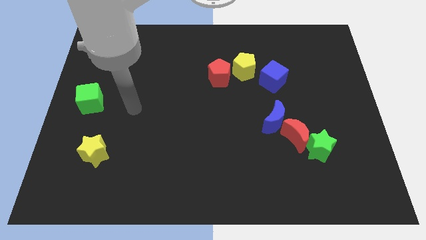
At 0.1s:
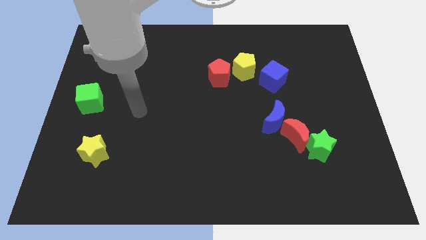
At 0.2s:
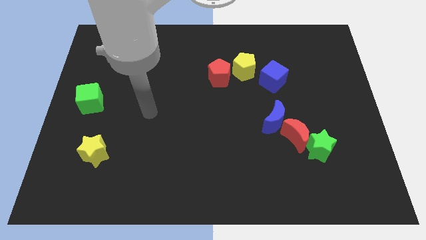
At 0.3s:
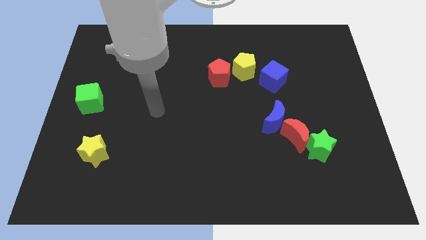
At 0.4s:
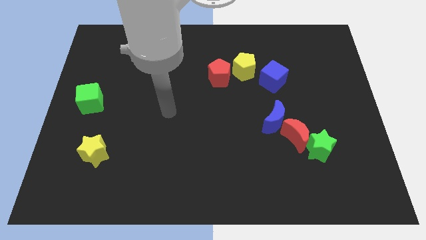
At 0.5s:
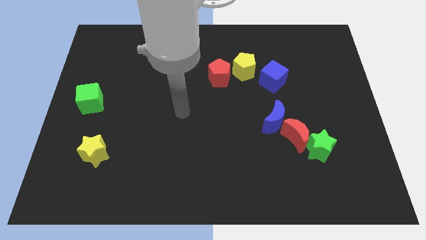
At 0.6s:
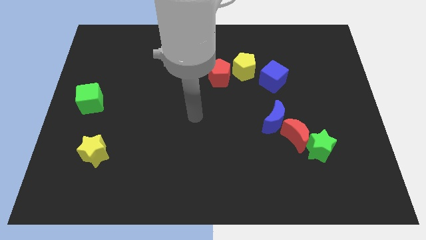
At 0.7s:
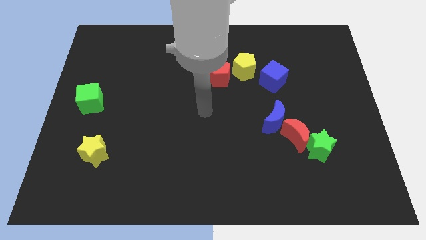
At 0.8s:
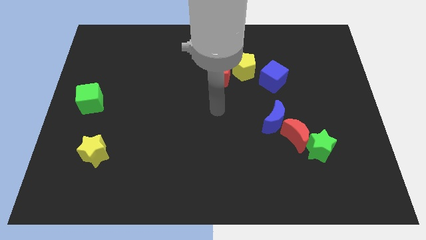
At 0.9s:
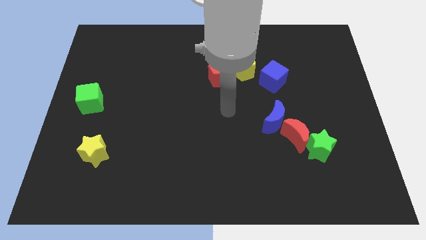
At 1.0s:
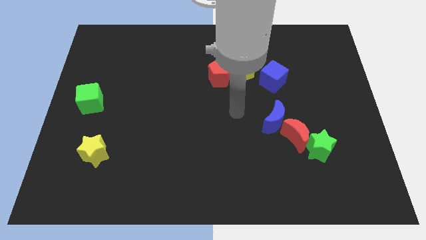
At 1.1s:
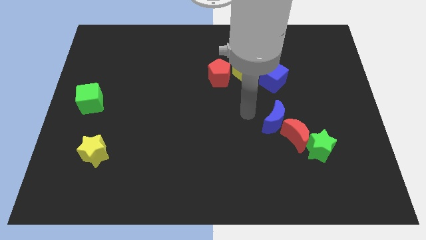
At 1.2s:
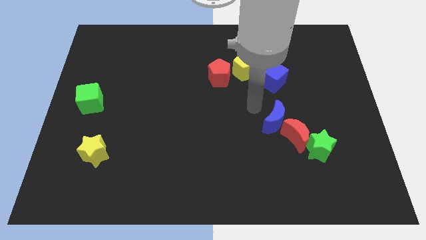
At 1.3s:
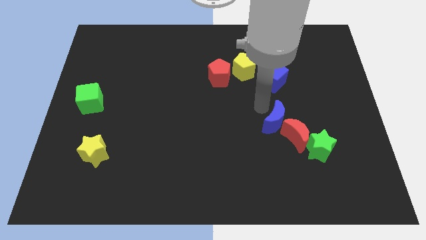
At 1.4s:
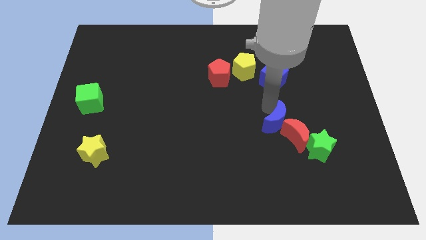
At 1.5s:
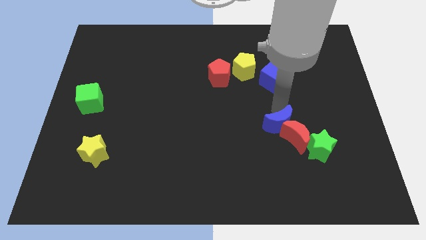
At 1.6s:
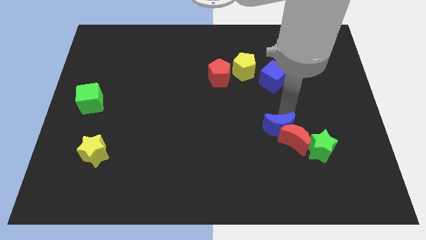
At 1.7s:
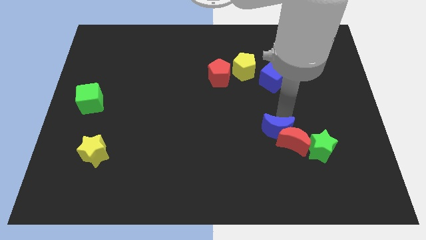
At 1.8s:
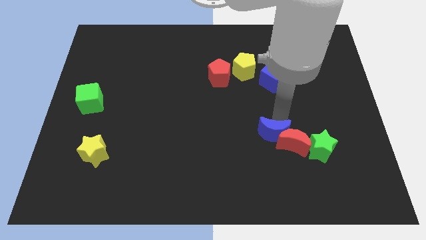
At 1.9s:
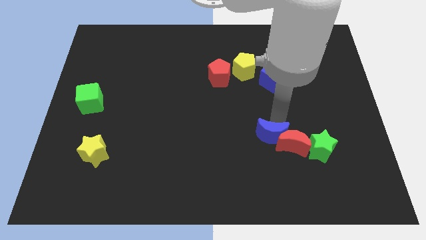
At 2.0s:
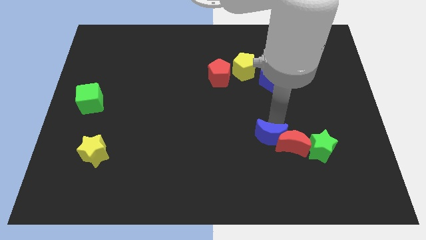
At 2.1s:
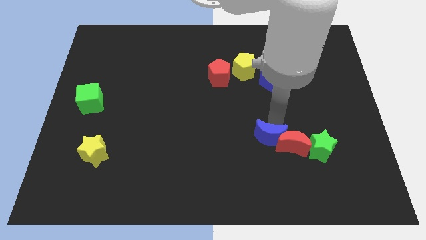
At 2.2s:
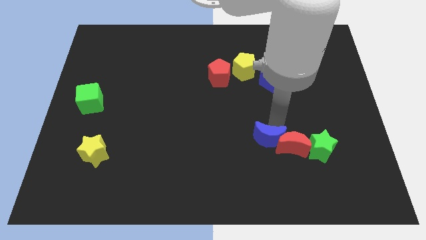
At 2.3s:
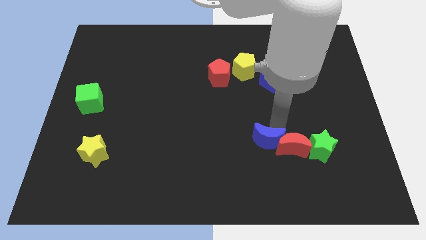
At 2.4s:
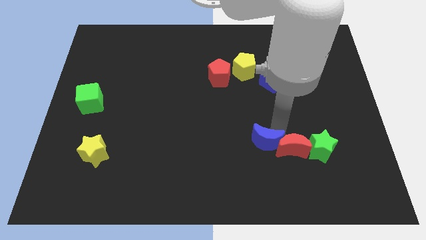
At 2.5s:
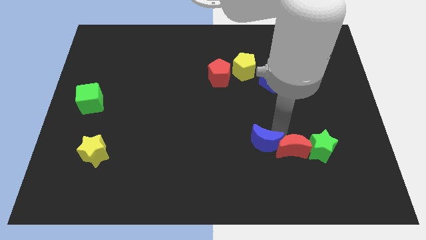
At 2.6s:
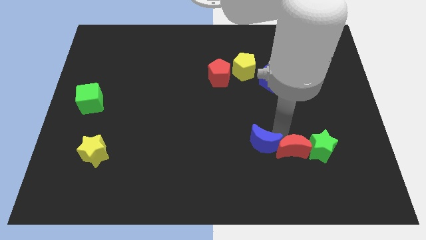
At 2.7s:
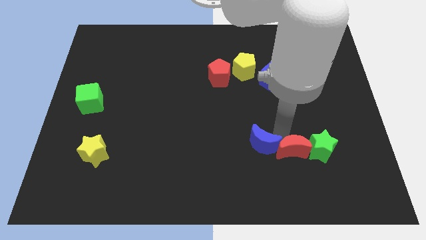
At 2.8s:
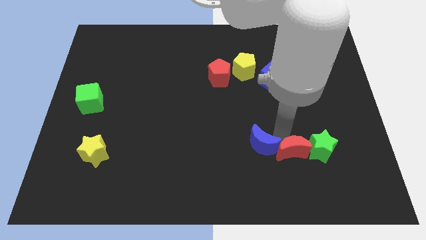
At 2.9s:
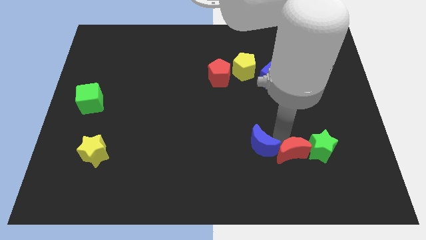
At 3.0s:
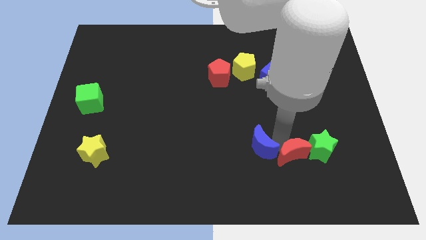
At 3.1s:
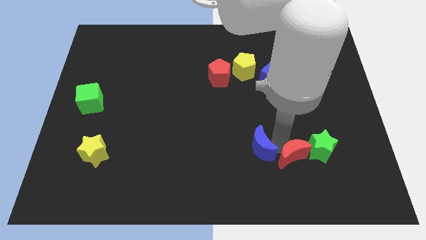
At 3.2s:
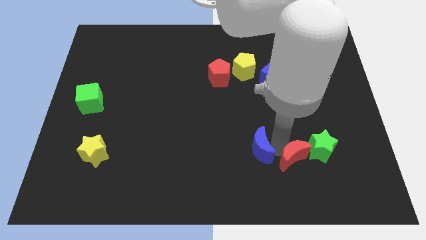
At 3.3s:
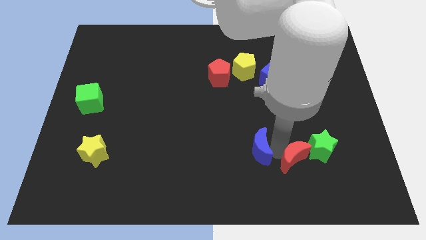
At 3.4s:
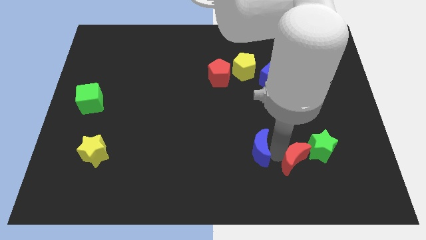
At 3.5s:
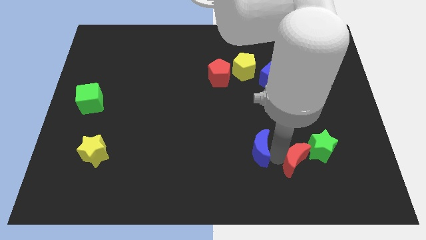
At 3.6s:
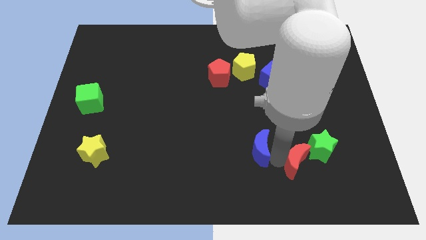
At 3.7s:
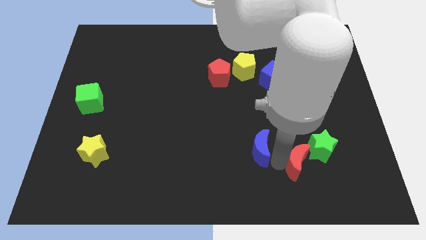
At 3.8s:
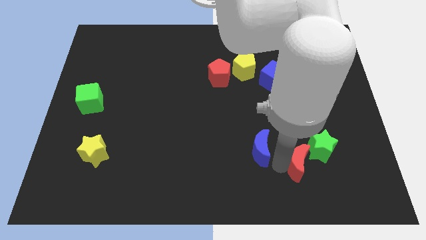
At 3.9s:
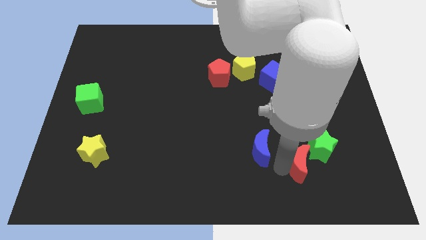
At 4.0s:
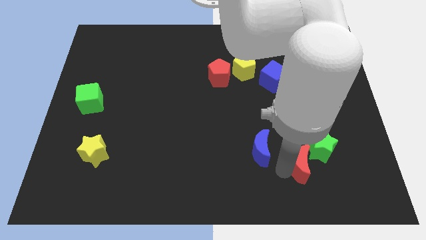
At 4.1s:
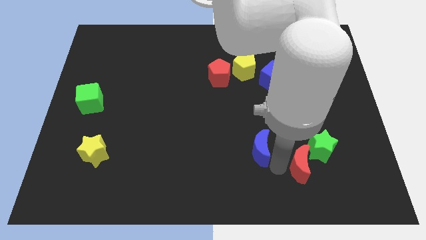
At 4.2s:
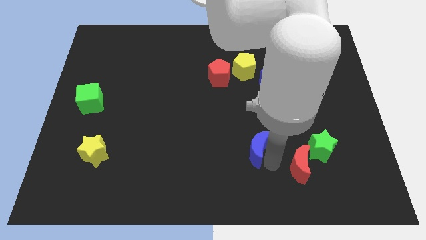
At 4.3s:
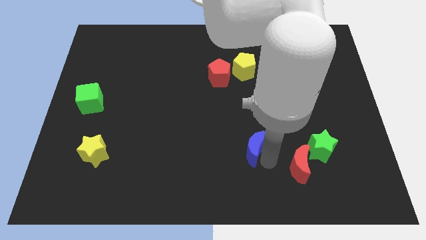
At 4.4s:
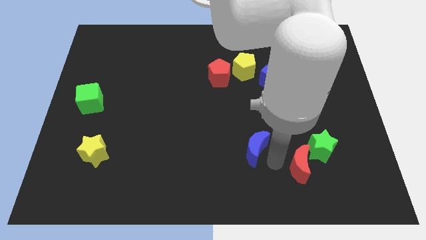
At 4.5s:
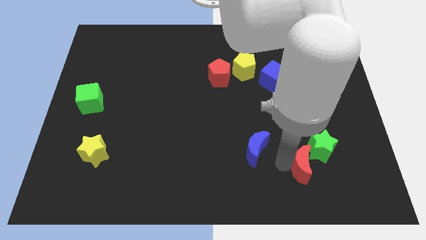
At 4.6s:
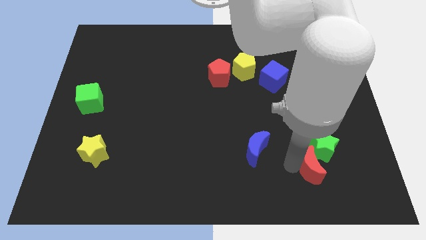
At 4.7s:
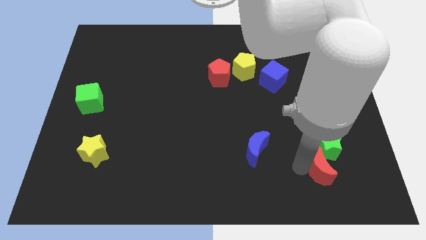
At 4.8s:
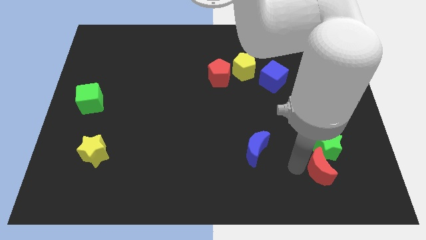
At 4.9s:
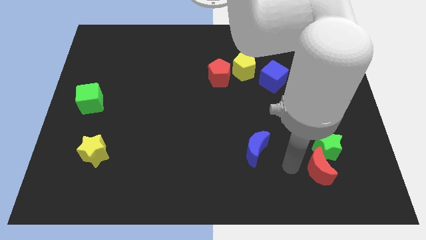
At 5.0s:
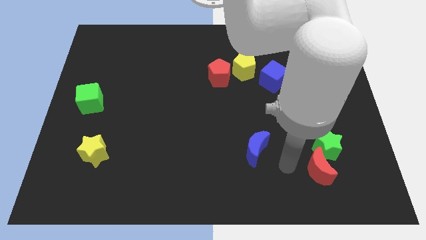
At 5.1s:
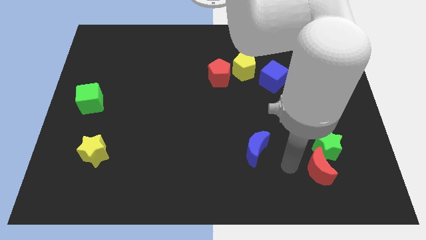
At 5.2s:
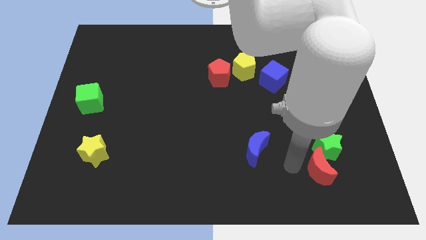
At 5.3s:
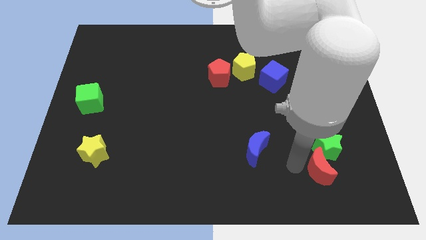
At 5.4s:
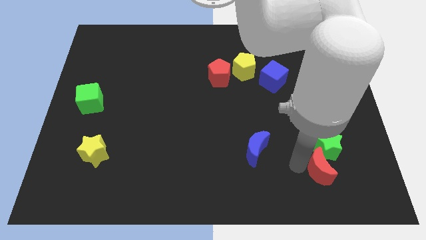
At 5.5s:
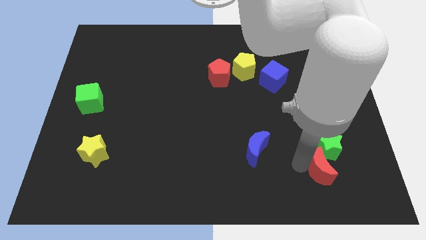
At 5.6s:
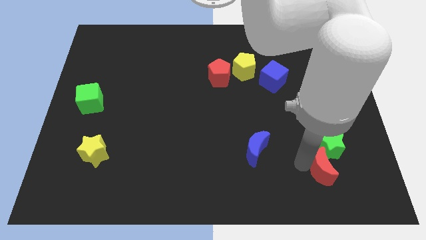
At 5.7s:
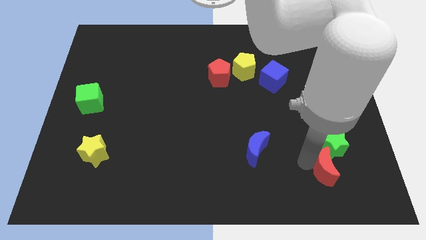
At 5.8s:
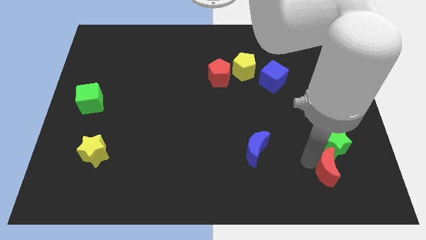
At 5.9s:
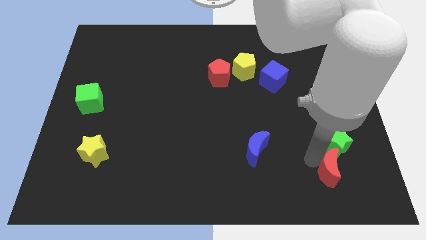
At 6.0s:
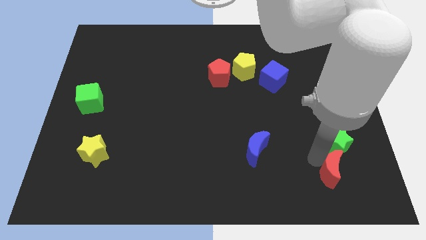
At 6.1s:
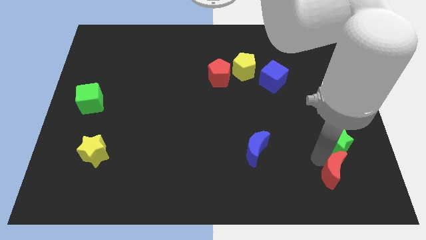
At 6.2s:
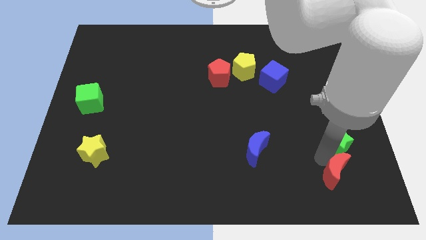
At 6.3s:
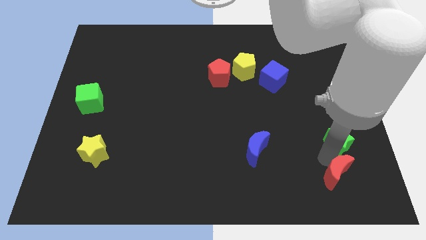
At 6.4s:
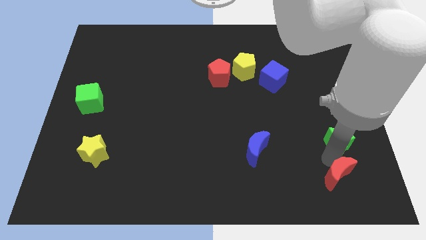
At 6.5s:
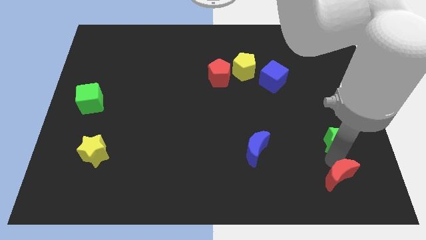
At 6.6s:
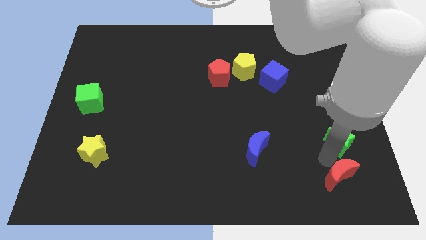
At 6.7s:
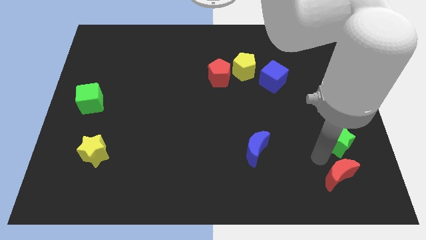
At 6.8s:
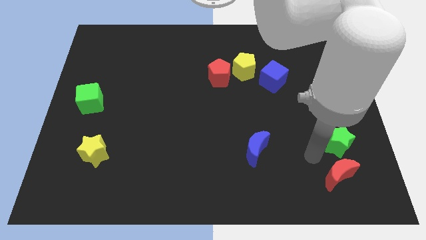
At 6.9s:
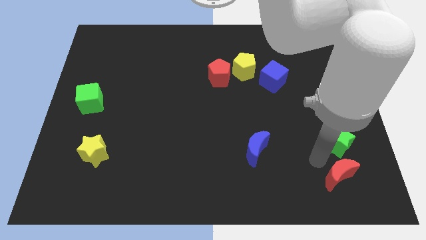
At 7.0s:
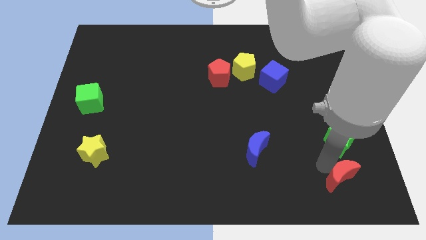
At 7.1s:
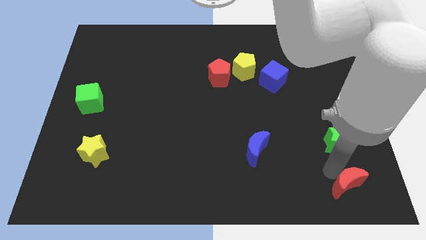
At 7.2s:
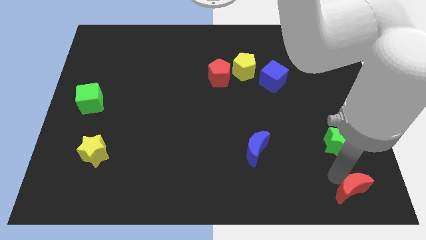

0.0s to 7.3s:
move the red moon to the bottom right of the board
